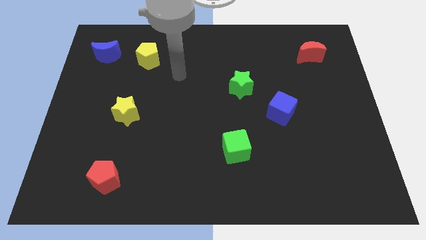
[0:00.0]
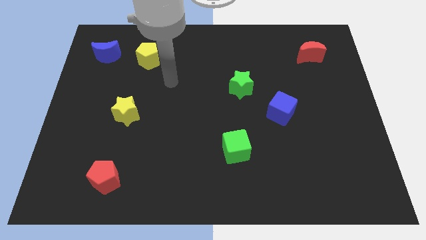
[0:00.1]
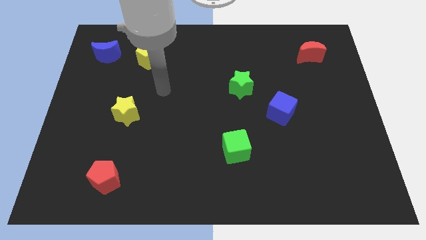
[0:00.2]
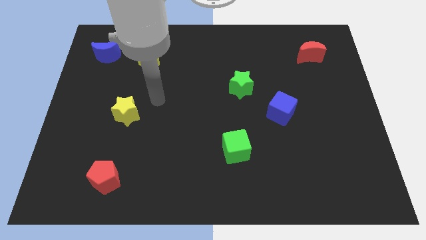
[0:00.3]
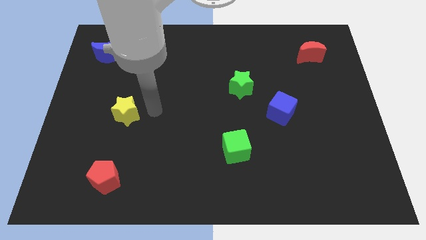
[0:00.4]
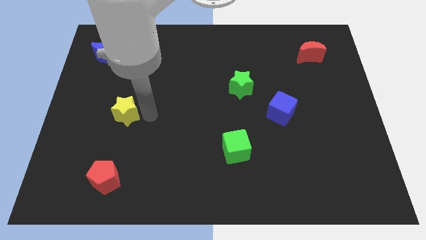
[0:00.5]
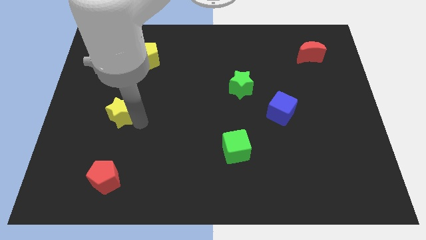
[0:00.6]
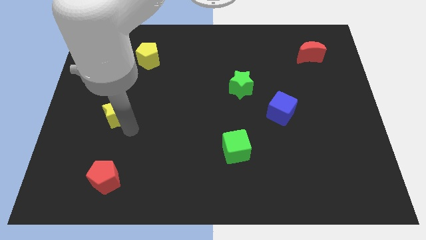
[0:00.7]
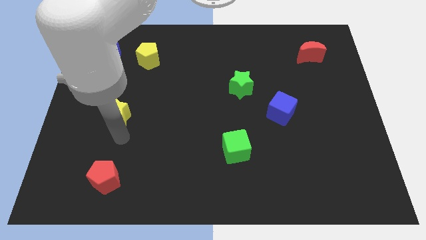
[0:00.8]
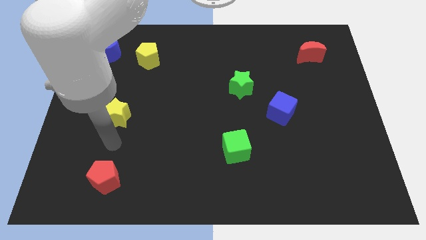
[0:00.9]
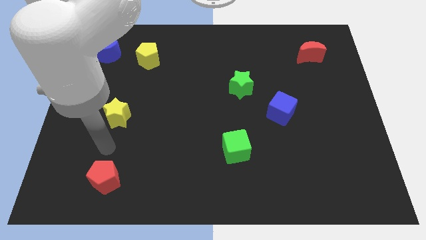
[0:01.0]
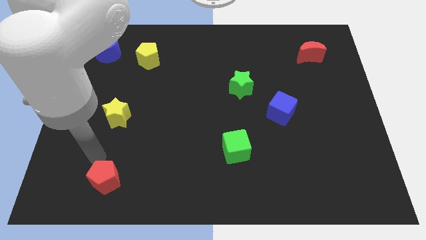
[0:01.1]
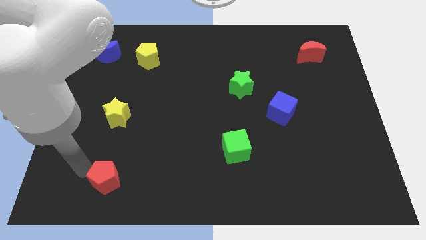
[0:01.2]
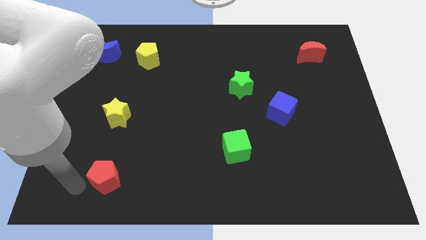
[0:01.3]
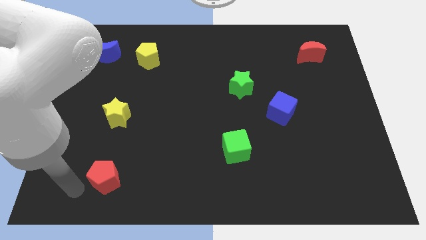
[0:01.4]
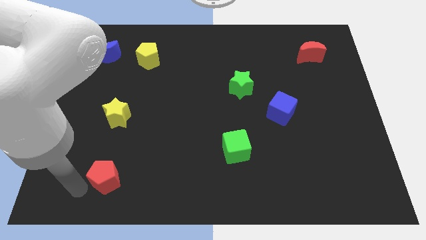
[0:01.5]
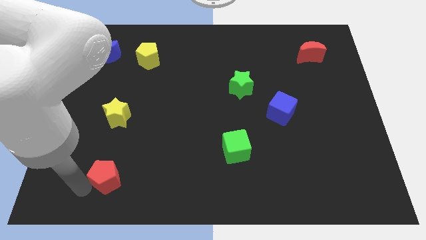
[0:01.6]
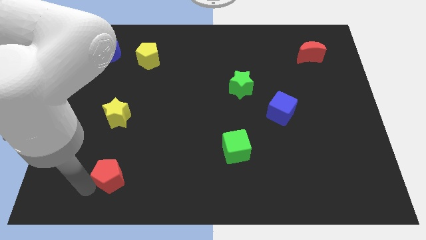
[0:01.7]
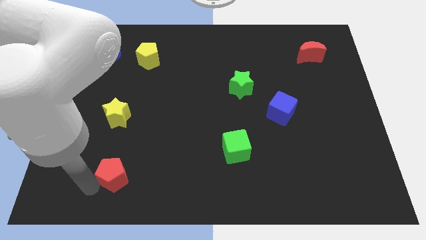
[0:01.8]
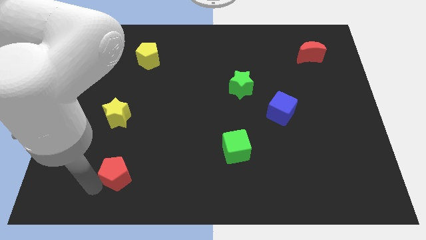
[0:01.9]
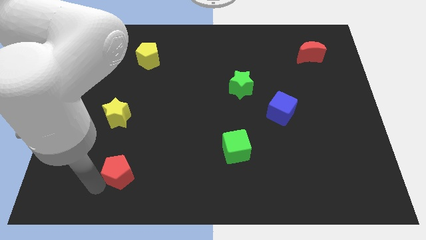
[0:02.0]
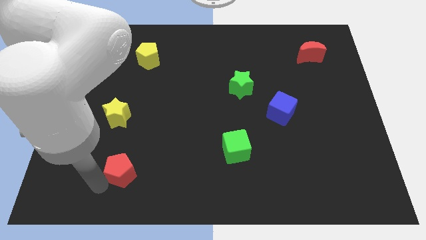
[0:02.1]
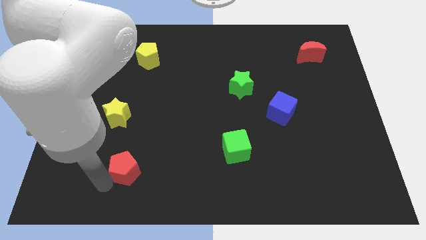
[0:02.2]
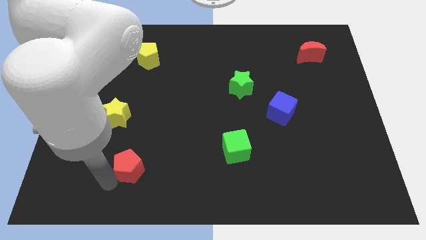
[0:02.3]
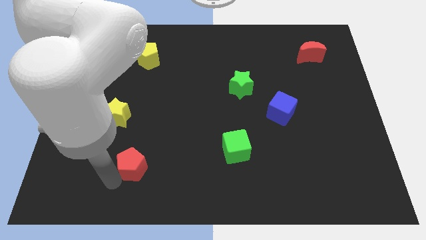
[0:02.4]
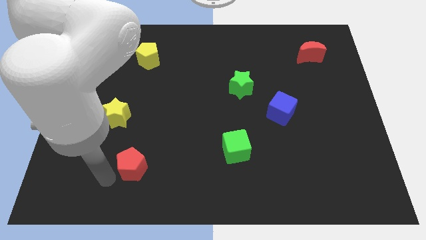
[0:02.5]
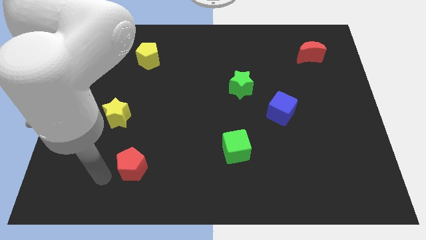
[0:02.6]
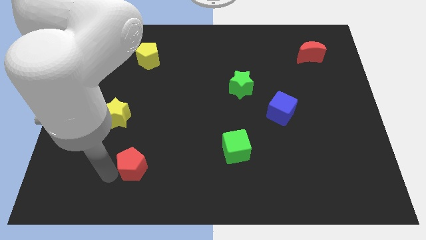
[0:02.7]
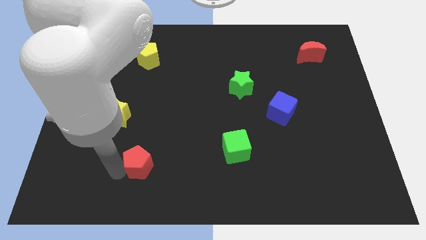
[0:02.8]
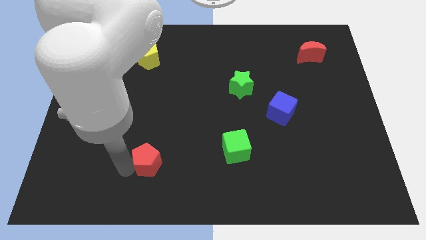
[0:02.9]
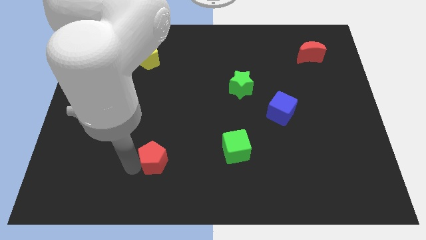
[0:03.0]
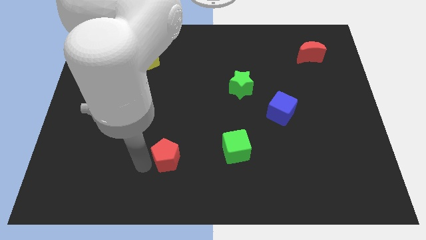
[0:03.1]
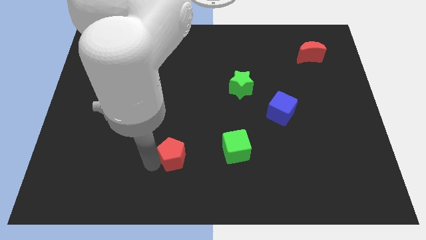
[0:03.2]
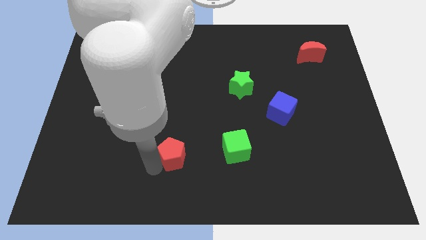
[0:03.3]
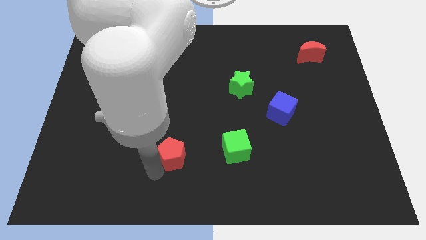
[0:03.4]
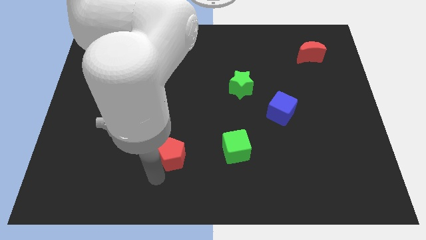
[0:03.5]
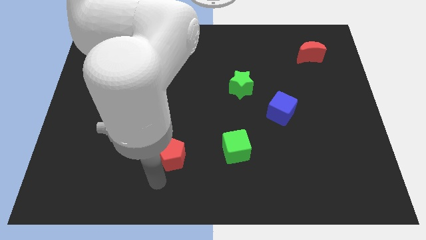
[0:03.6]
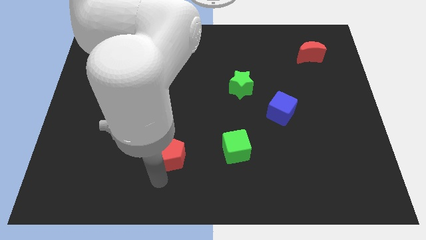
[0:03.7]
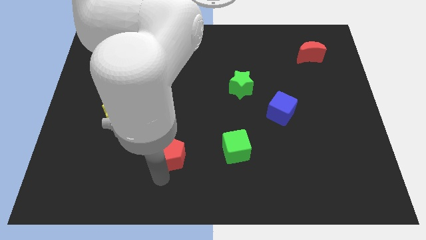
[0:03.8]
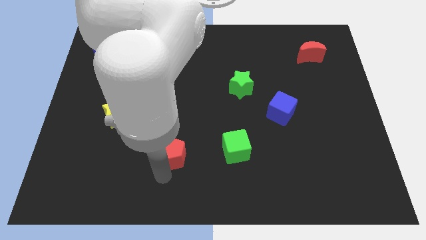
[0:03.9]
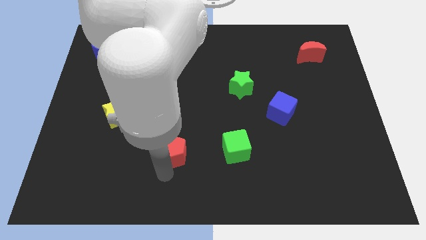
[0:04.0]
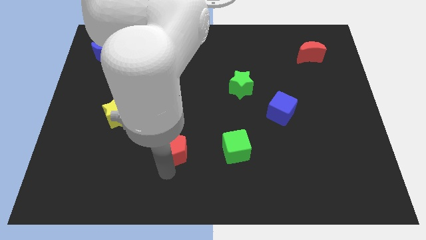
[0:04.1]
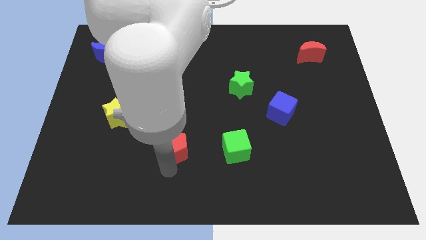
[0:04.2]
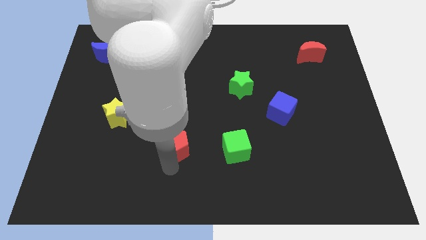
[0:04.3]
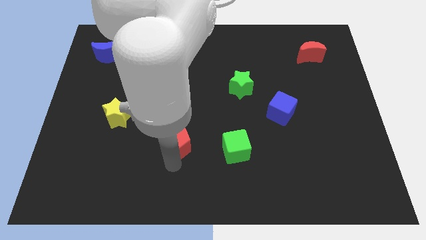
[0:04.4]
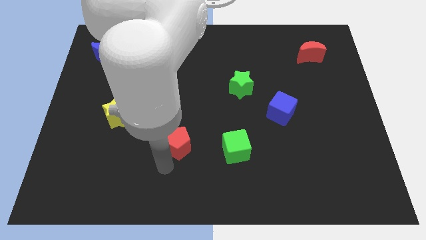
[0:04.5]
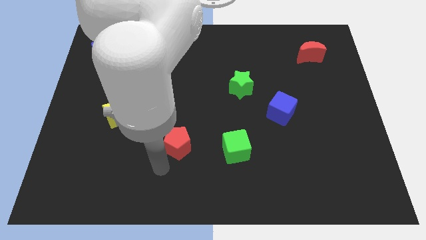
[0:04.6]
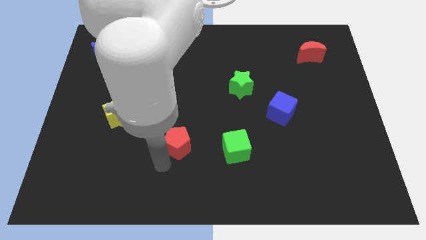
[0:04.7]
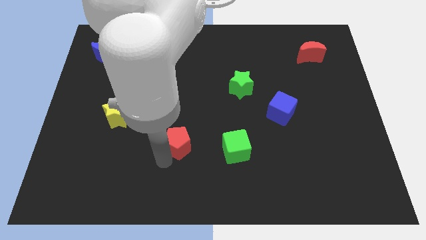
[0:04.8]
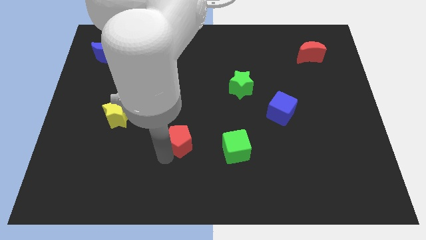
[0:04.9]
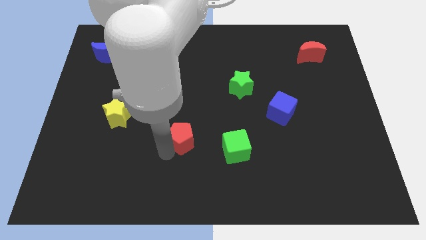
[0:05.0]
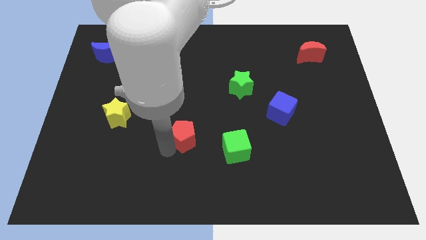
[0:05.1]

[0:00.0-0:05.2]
slide the red pentagon to the middle
